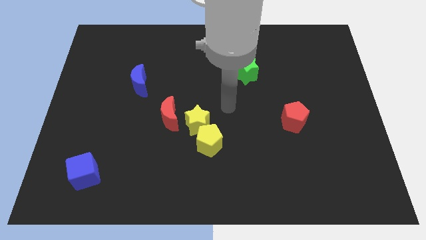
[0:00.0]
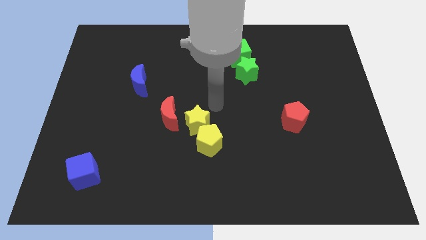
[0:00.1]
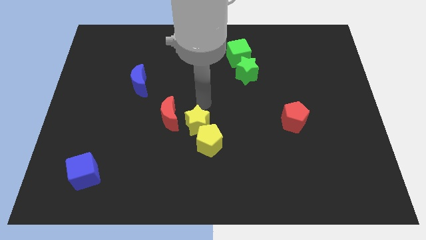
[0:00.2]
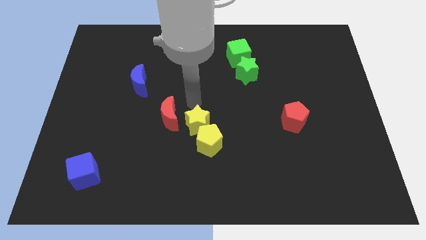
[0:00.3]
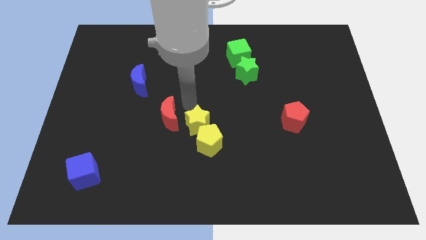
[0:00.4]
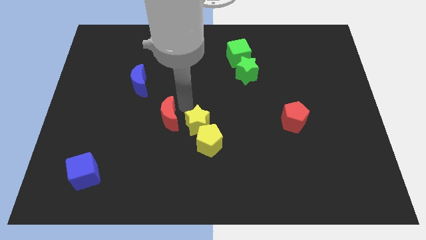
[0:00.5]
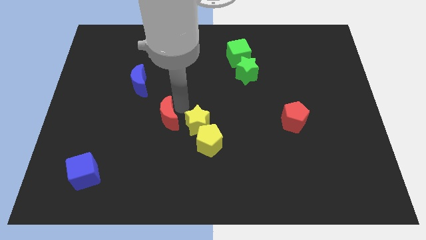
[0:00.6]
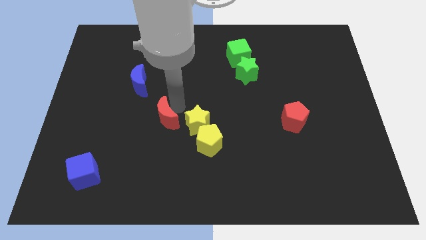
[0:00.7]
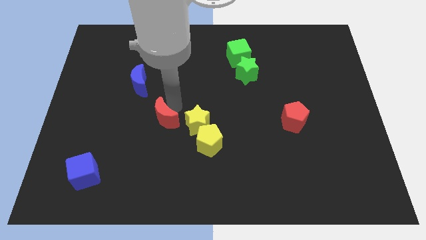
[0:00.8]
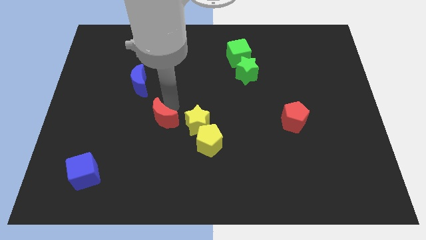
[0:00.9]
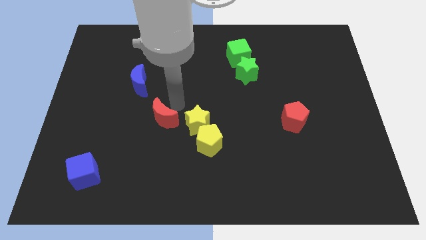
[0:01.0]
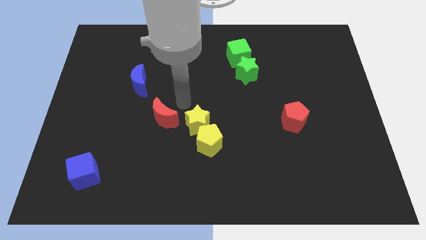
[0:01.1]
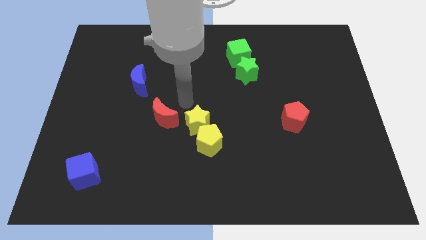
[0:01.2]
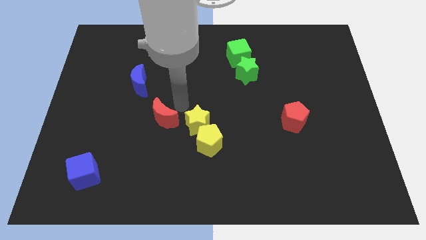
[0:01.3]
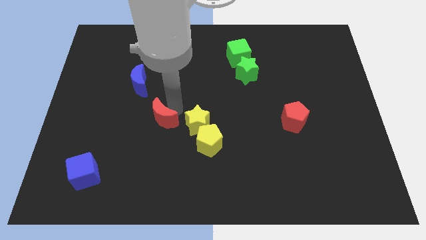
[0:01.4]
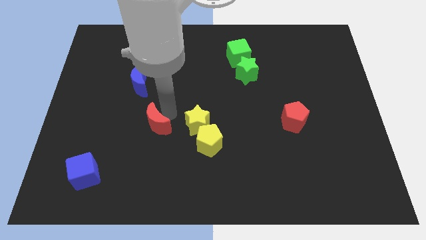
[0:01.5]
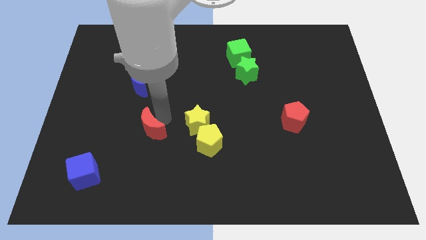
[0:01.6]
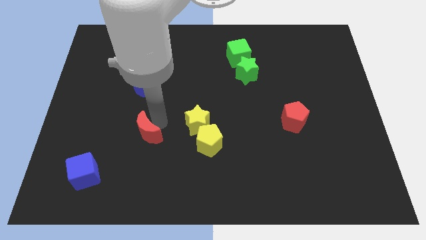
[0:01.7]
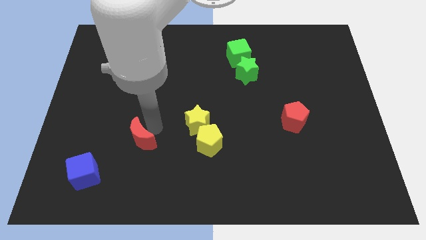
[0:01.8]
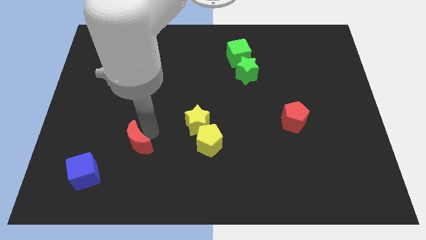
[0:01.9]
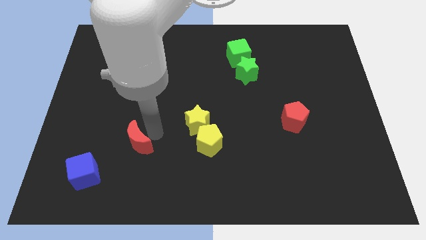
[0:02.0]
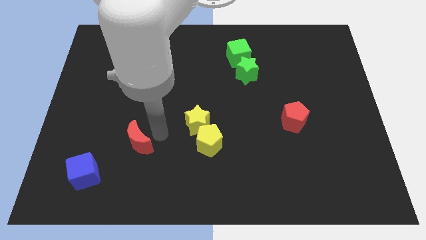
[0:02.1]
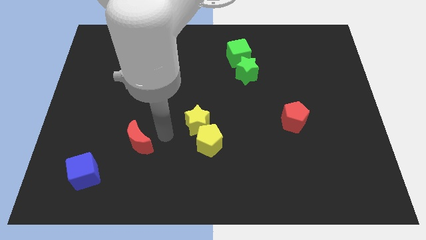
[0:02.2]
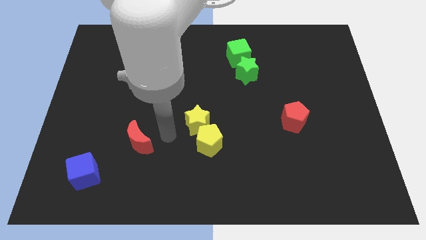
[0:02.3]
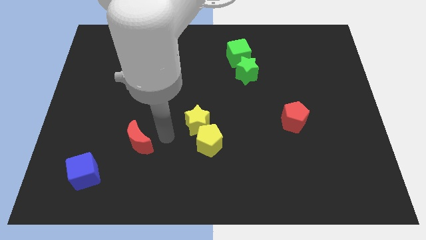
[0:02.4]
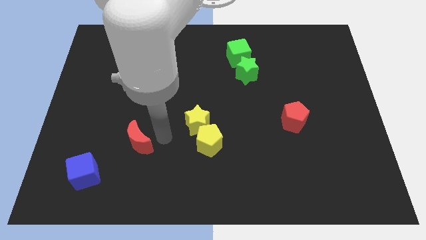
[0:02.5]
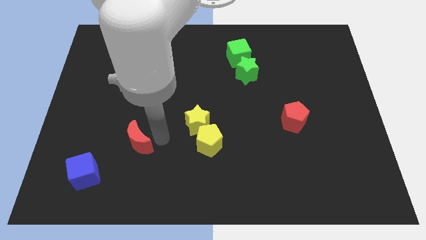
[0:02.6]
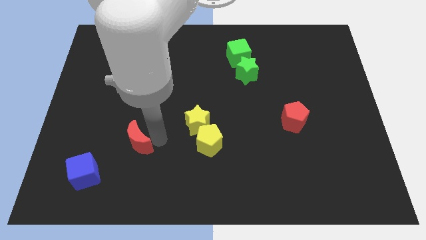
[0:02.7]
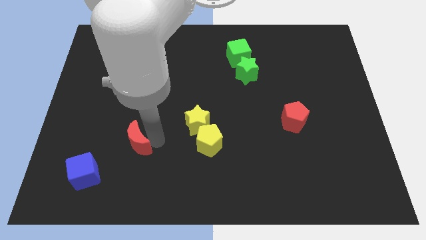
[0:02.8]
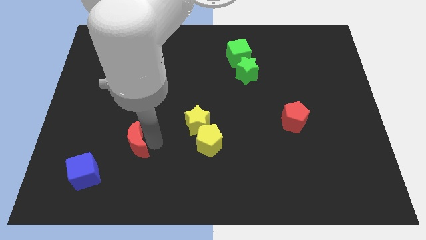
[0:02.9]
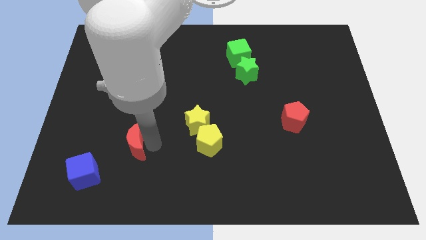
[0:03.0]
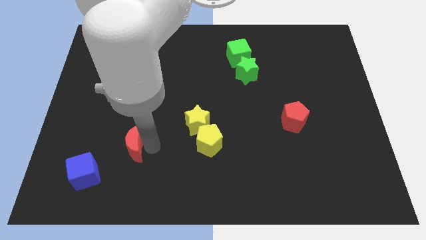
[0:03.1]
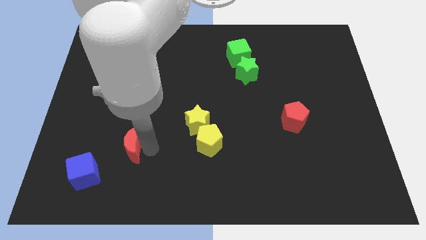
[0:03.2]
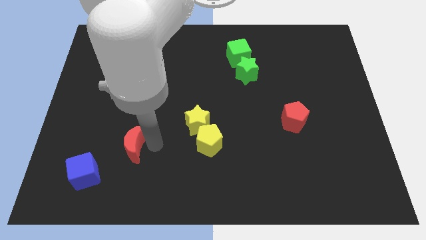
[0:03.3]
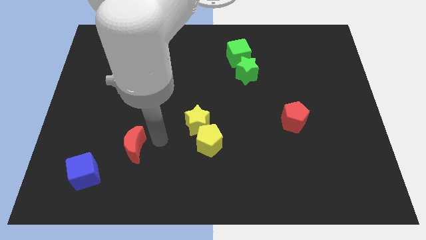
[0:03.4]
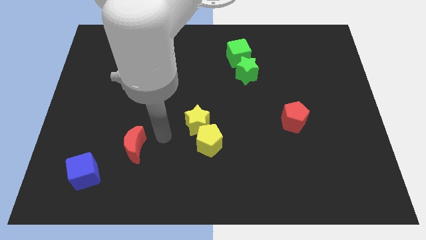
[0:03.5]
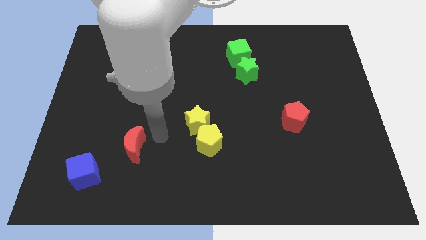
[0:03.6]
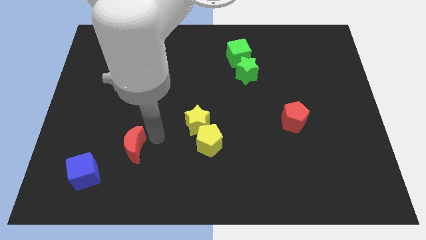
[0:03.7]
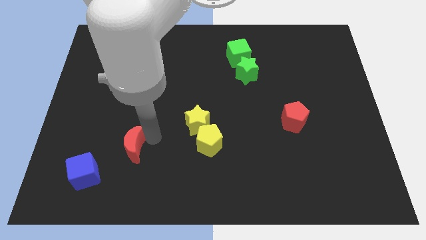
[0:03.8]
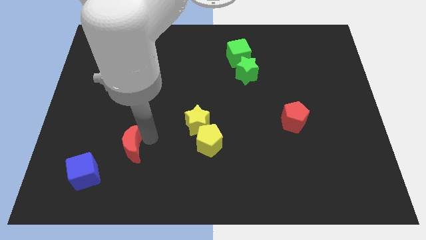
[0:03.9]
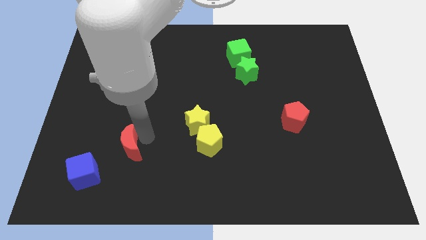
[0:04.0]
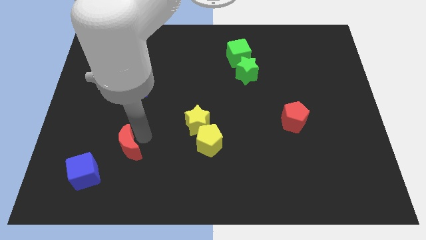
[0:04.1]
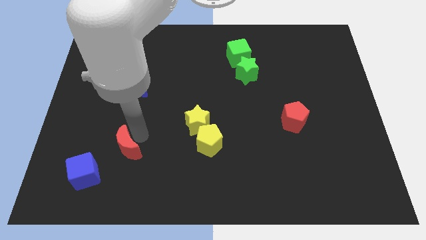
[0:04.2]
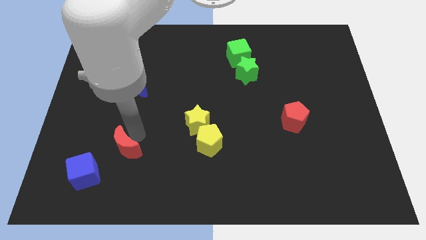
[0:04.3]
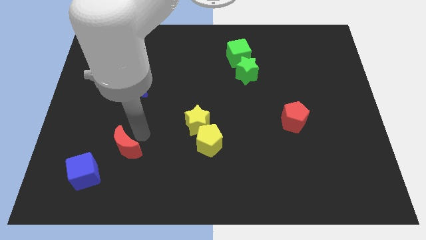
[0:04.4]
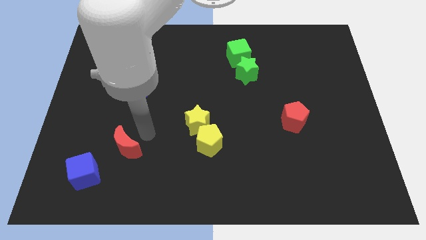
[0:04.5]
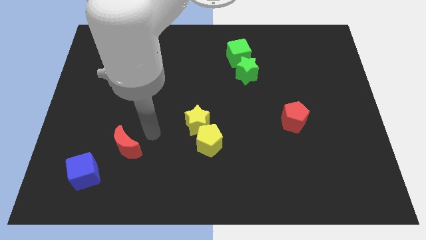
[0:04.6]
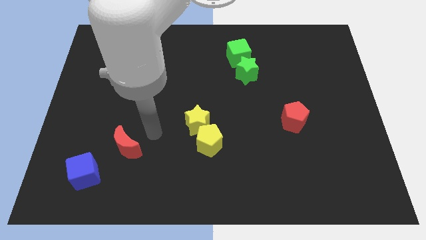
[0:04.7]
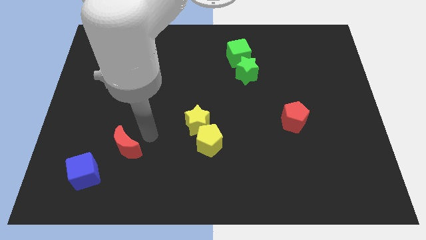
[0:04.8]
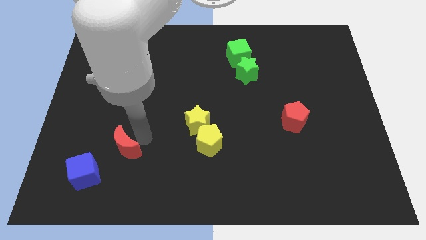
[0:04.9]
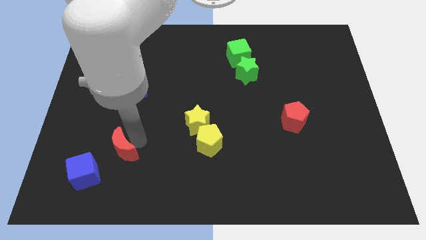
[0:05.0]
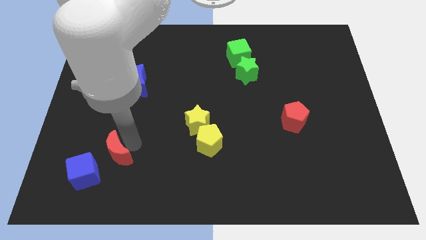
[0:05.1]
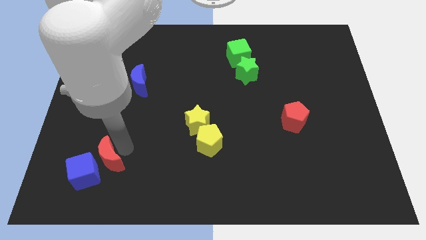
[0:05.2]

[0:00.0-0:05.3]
push the red moon close to the blue cube

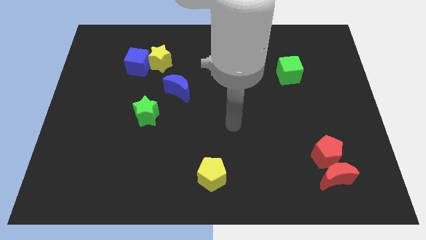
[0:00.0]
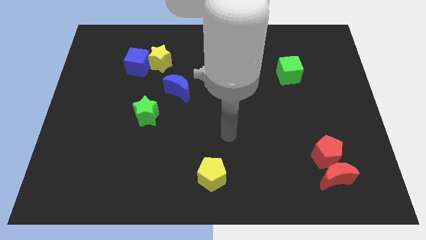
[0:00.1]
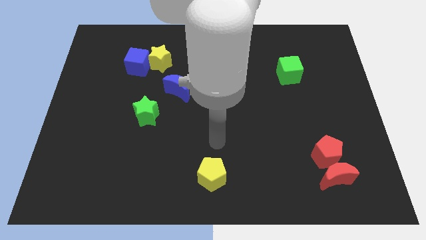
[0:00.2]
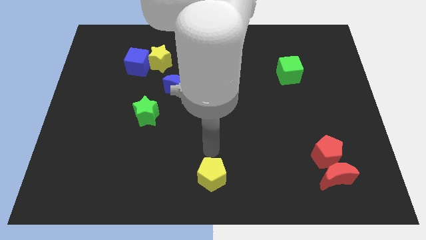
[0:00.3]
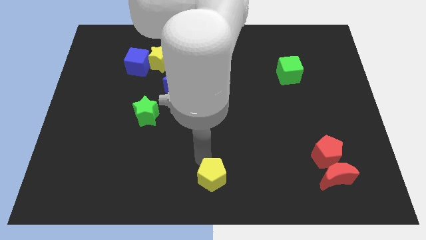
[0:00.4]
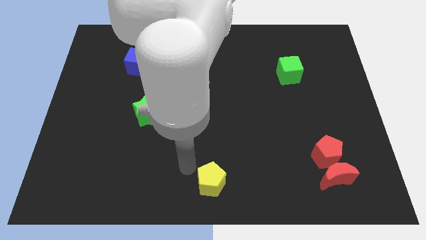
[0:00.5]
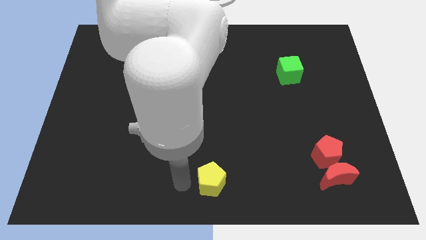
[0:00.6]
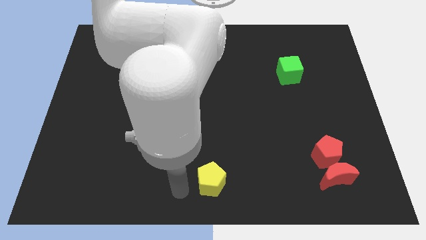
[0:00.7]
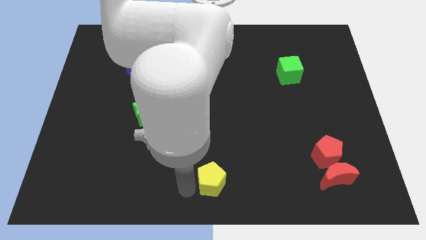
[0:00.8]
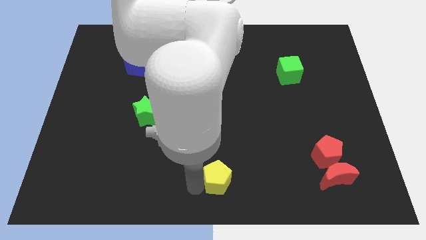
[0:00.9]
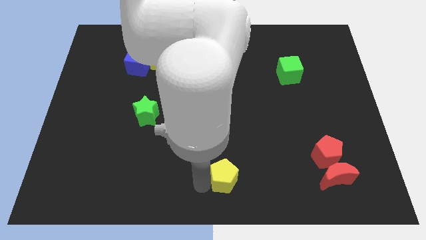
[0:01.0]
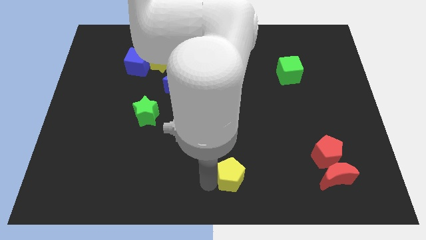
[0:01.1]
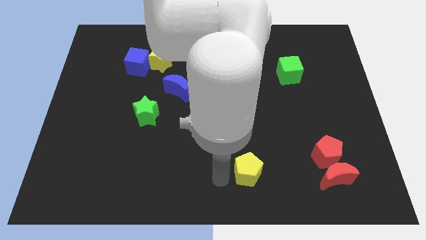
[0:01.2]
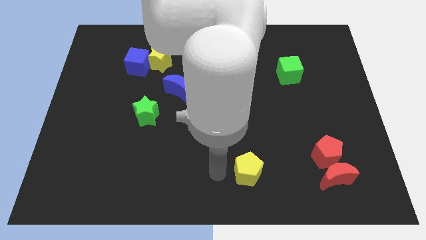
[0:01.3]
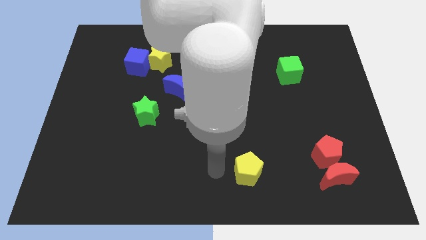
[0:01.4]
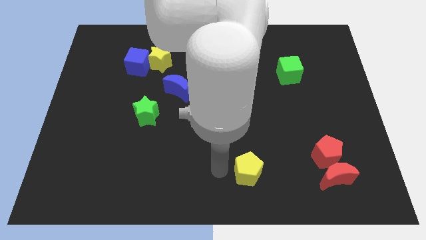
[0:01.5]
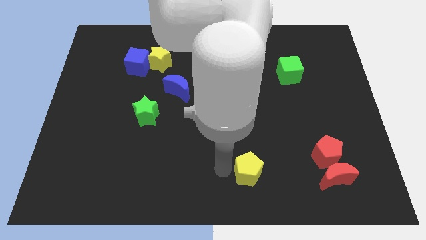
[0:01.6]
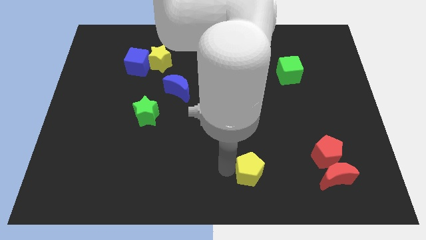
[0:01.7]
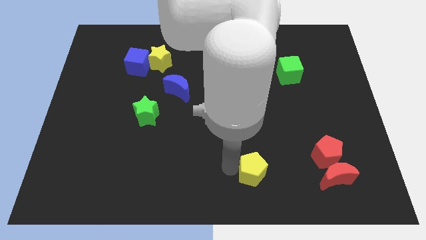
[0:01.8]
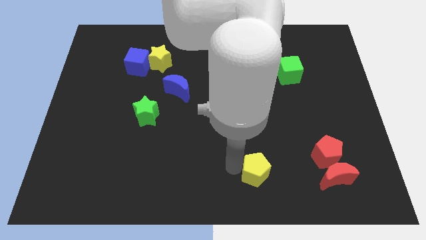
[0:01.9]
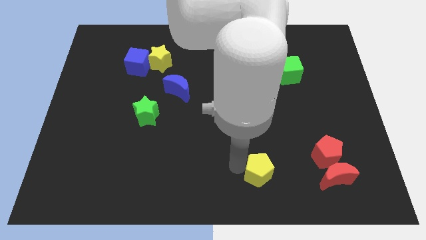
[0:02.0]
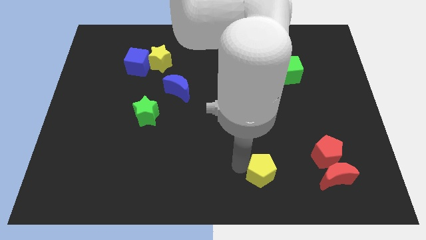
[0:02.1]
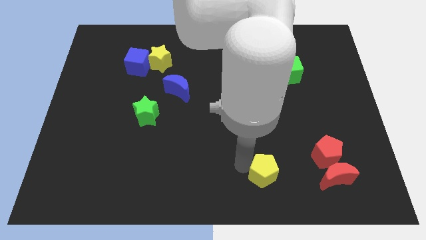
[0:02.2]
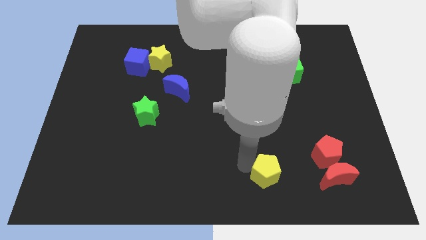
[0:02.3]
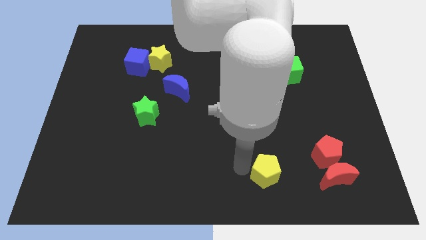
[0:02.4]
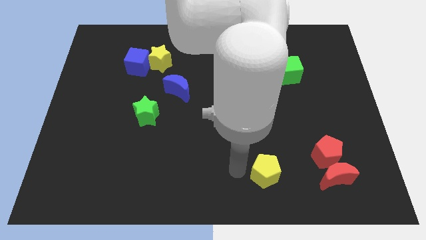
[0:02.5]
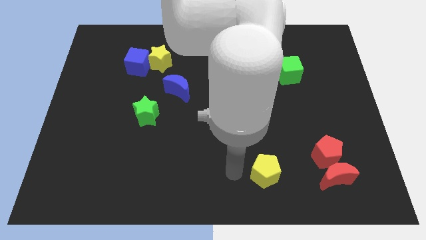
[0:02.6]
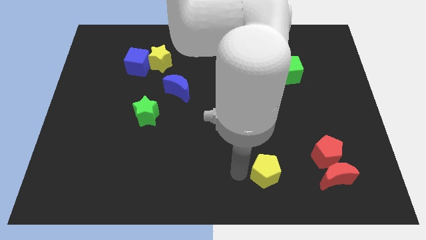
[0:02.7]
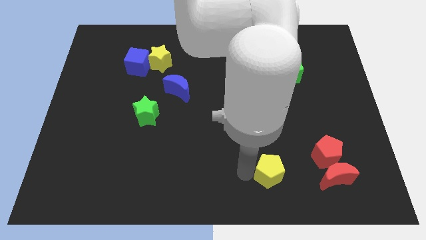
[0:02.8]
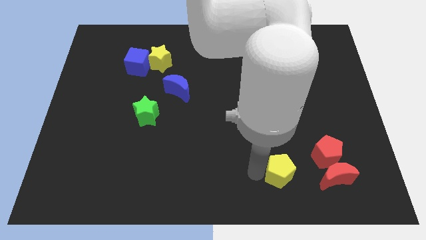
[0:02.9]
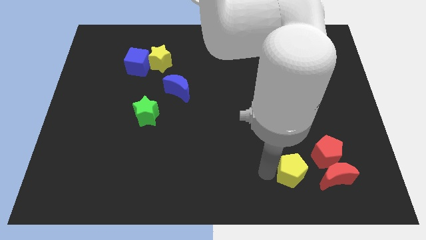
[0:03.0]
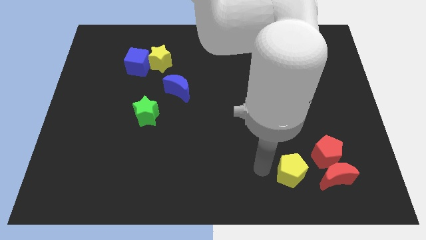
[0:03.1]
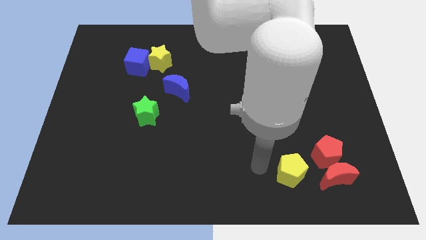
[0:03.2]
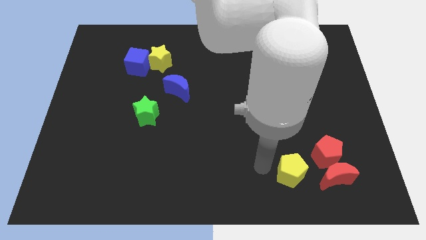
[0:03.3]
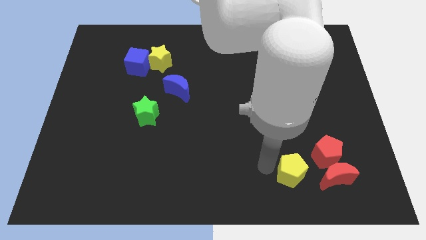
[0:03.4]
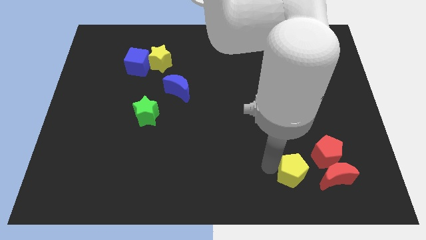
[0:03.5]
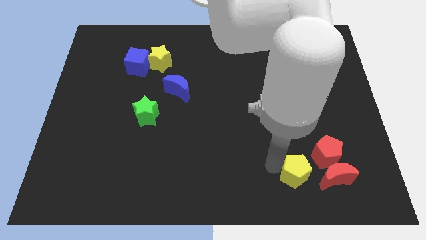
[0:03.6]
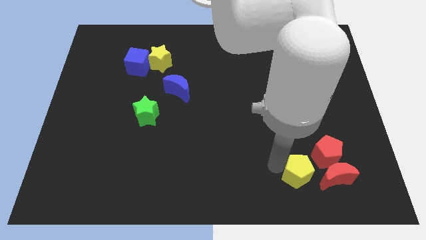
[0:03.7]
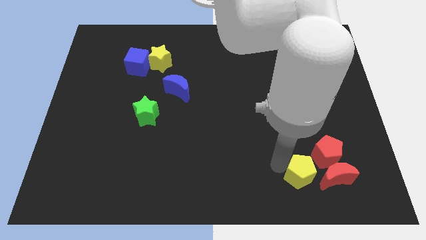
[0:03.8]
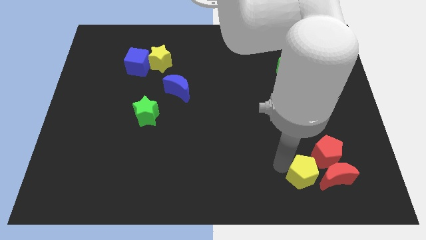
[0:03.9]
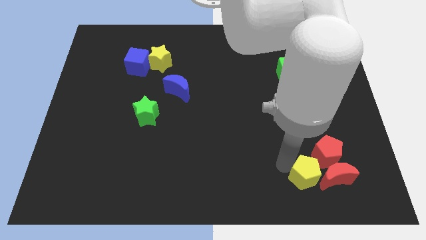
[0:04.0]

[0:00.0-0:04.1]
move the yellow pentagon next to the red moon
